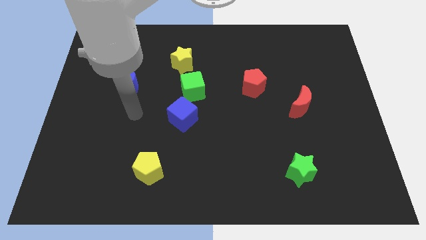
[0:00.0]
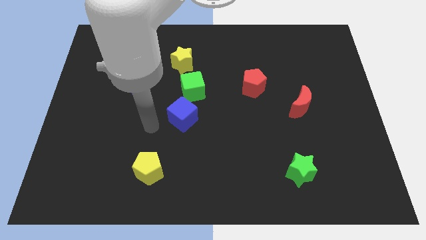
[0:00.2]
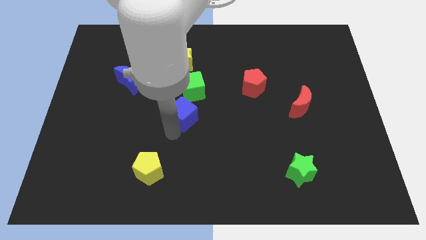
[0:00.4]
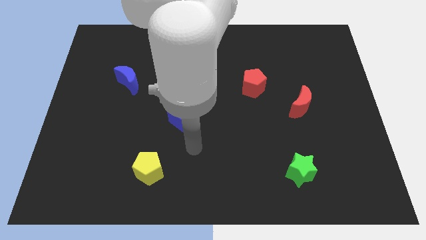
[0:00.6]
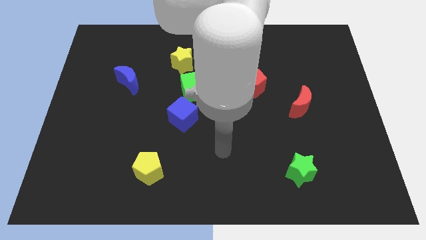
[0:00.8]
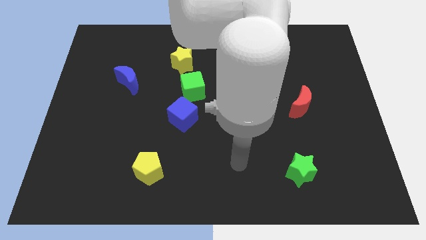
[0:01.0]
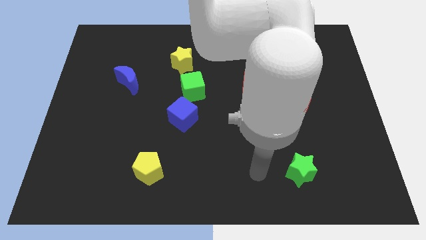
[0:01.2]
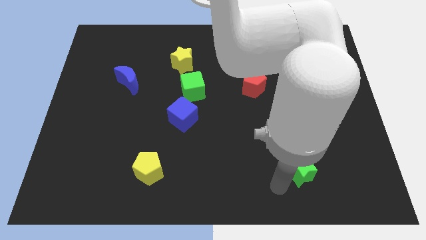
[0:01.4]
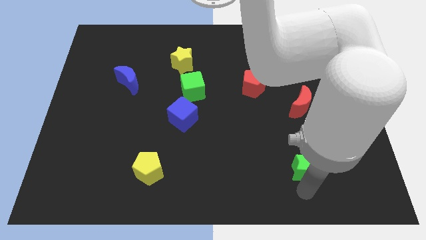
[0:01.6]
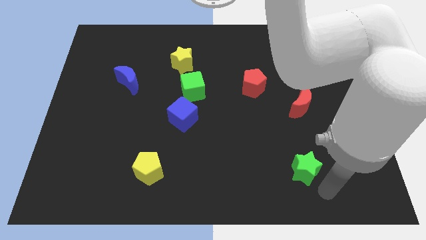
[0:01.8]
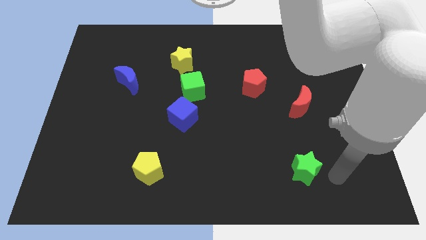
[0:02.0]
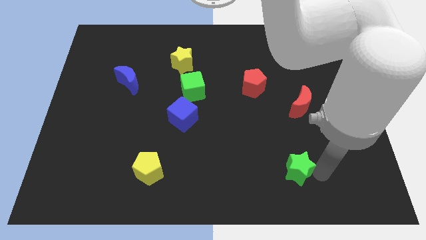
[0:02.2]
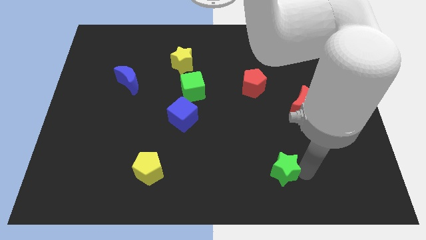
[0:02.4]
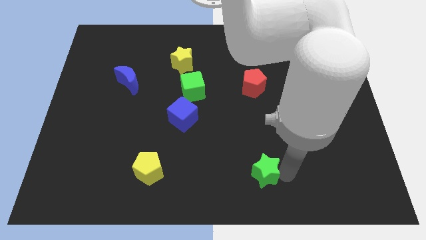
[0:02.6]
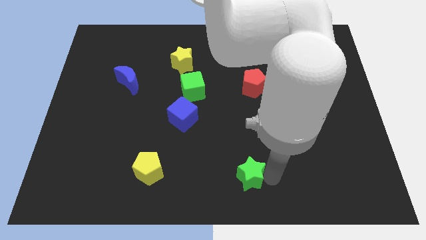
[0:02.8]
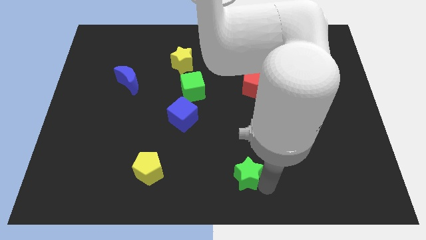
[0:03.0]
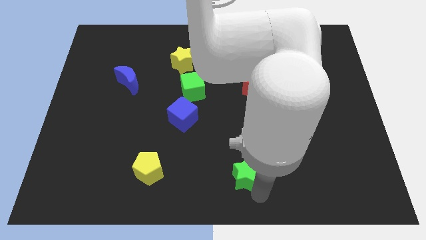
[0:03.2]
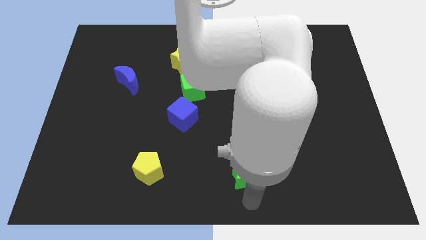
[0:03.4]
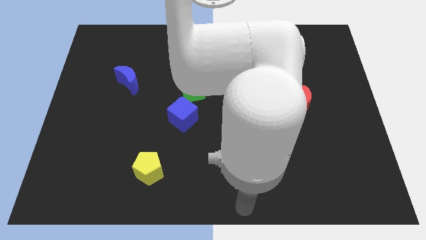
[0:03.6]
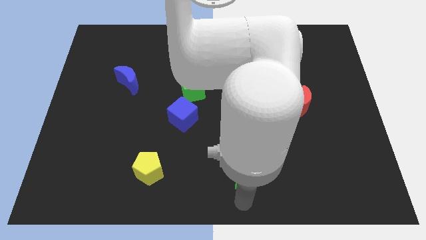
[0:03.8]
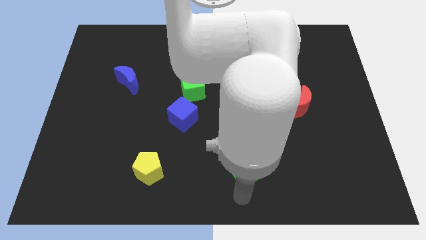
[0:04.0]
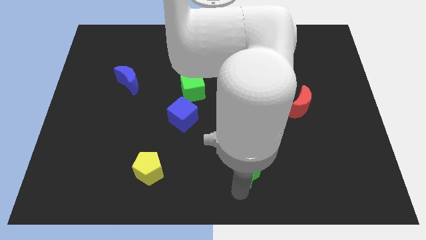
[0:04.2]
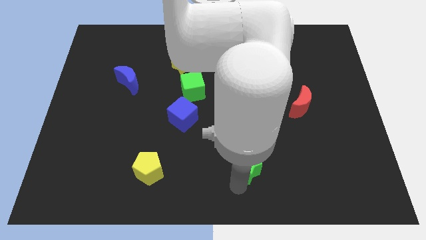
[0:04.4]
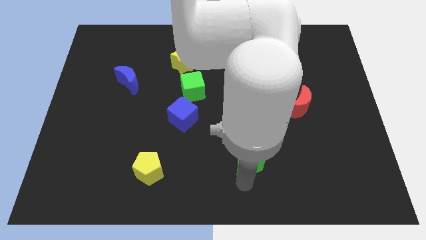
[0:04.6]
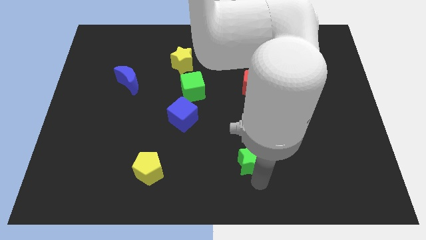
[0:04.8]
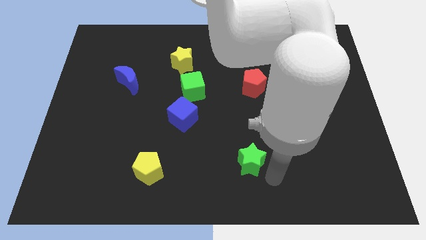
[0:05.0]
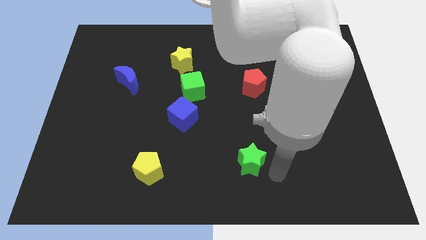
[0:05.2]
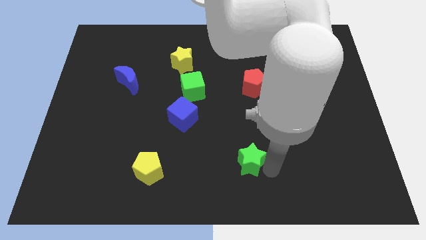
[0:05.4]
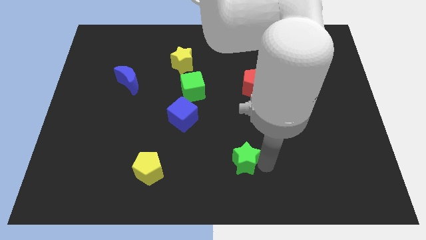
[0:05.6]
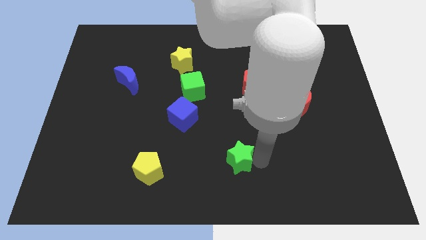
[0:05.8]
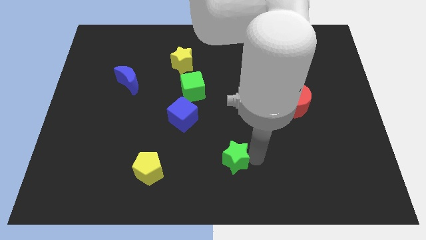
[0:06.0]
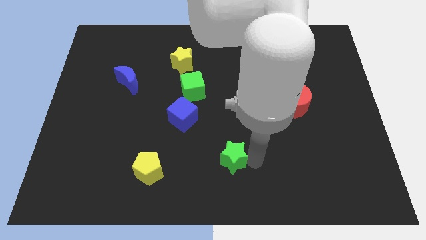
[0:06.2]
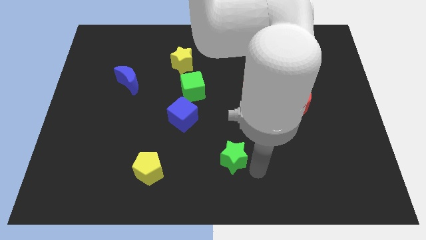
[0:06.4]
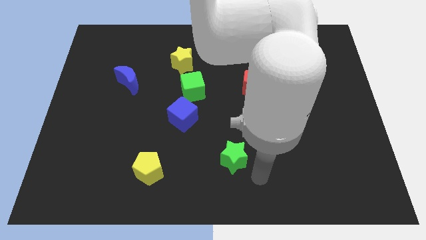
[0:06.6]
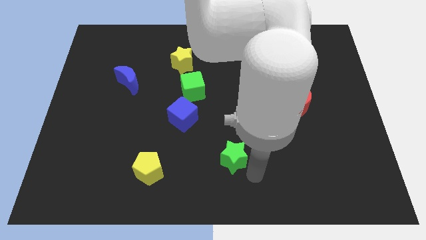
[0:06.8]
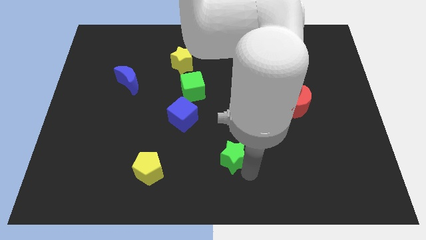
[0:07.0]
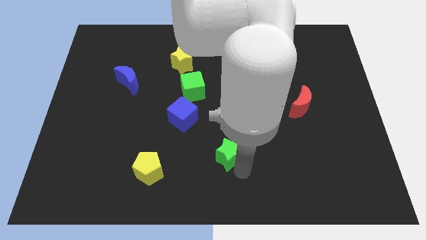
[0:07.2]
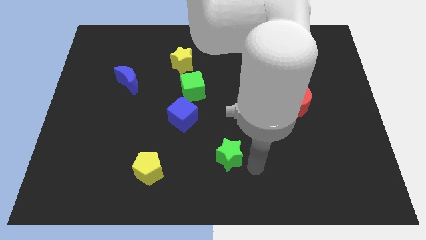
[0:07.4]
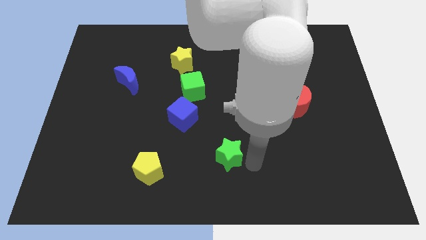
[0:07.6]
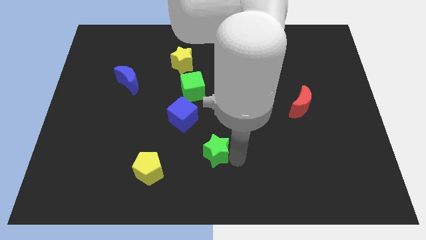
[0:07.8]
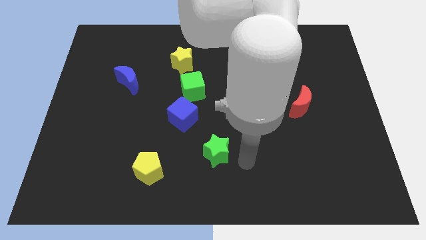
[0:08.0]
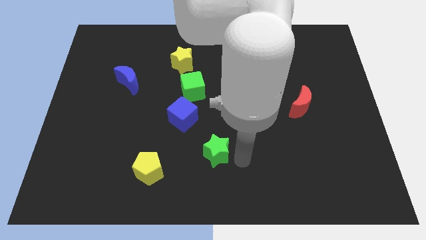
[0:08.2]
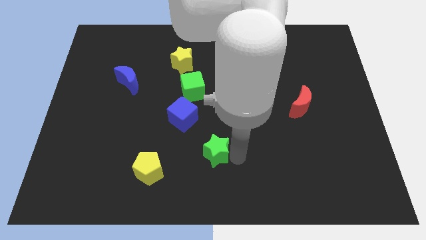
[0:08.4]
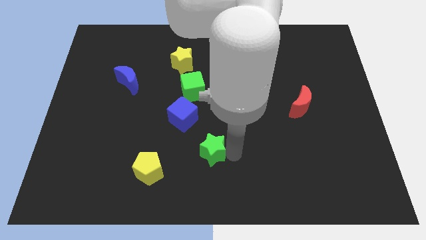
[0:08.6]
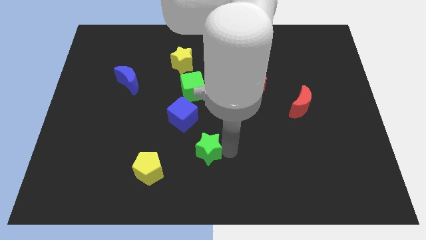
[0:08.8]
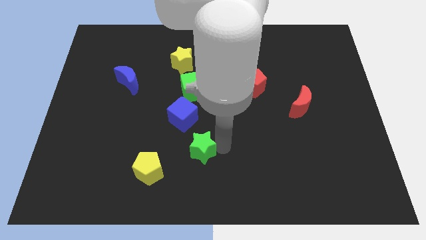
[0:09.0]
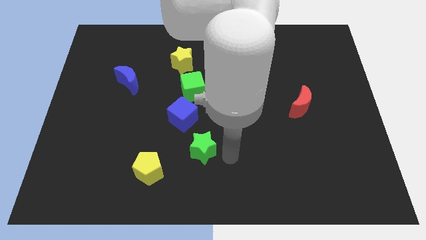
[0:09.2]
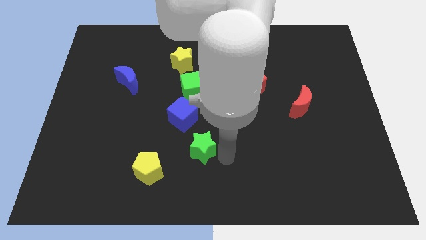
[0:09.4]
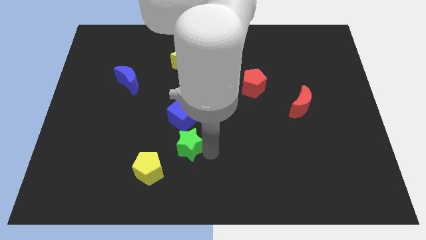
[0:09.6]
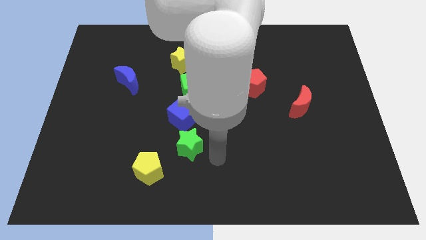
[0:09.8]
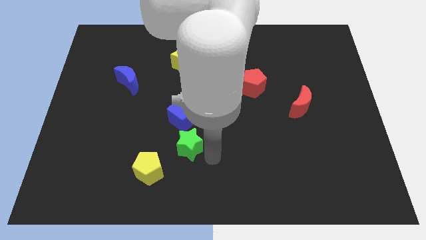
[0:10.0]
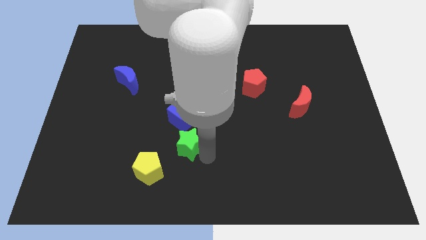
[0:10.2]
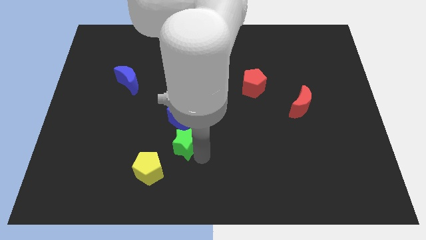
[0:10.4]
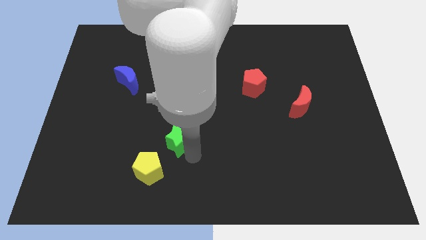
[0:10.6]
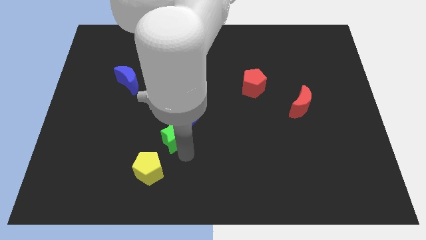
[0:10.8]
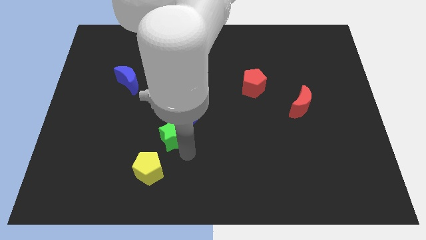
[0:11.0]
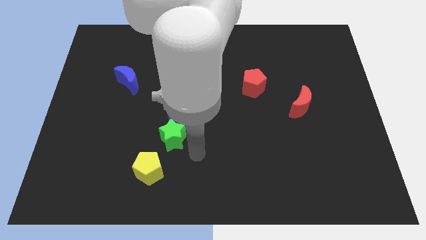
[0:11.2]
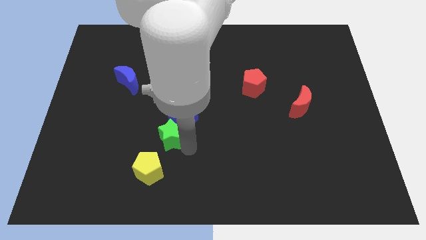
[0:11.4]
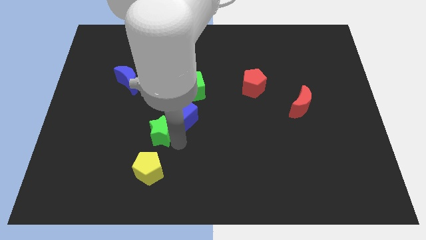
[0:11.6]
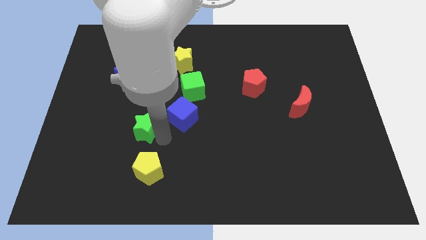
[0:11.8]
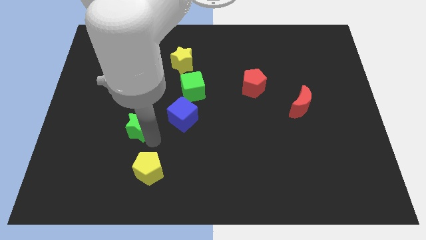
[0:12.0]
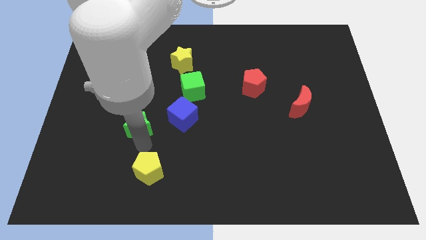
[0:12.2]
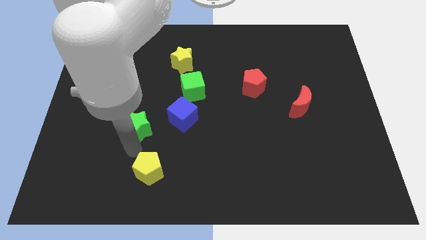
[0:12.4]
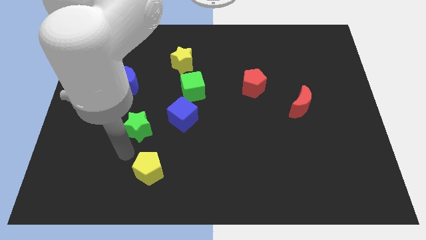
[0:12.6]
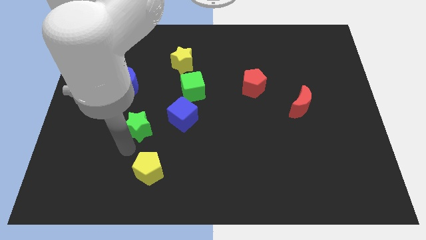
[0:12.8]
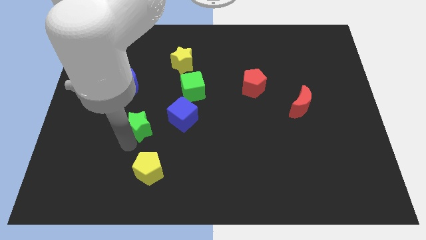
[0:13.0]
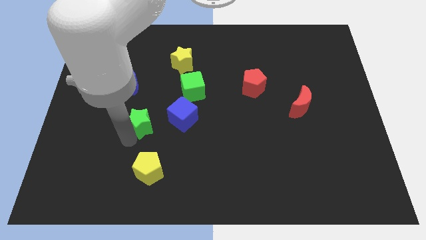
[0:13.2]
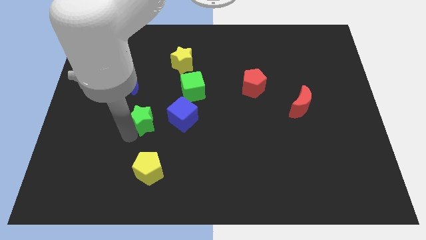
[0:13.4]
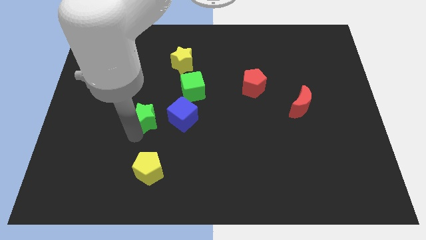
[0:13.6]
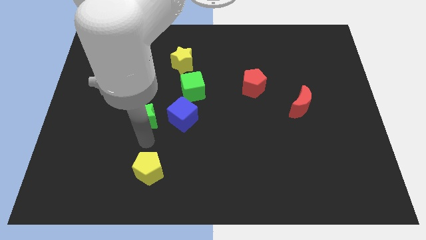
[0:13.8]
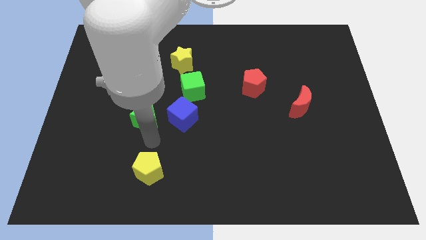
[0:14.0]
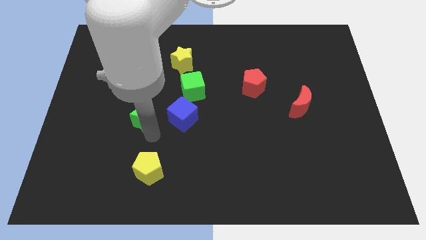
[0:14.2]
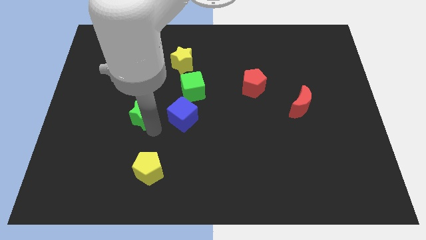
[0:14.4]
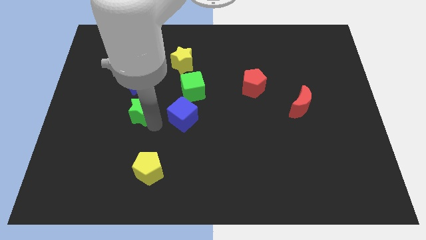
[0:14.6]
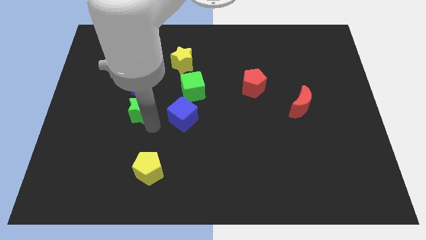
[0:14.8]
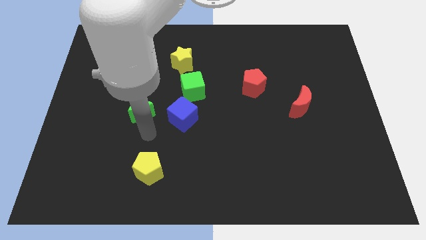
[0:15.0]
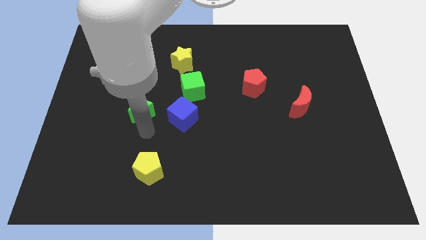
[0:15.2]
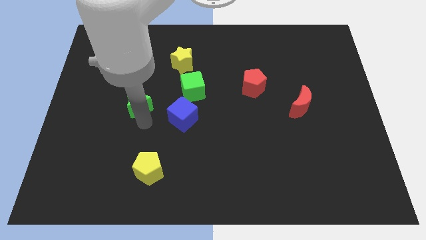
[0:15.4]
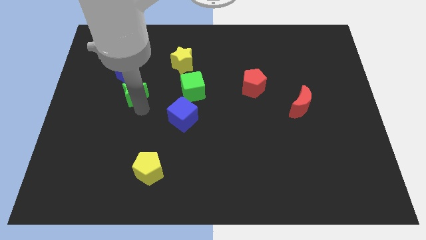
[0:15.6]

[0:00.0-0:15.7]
move the green star next to the blue moon
